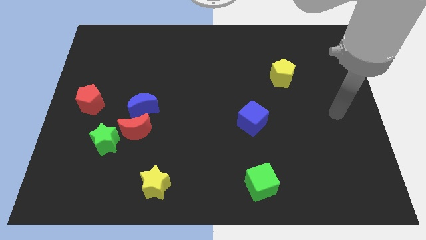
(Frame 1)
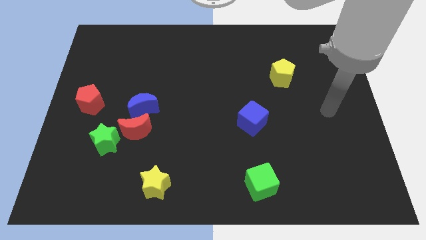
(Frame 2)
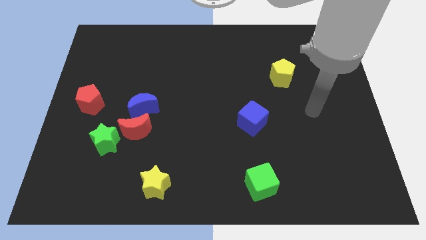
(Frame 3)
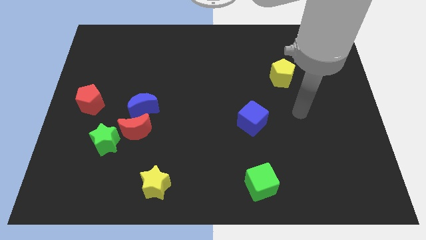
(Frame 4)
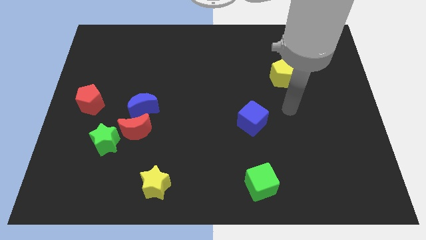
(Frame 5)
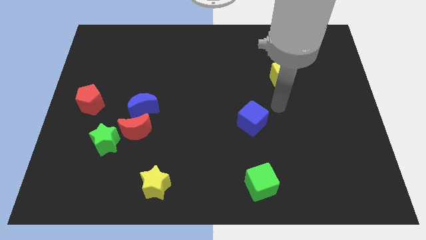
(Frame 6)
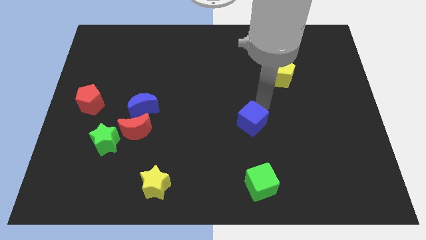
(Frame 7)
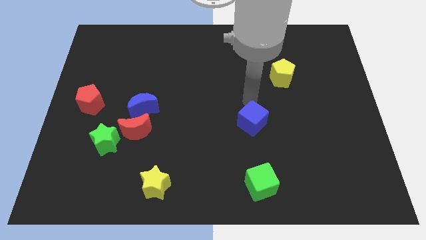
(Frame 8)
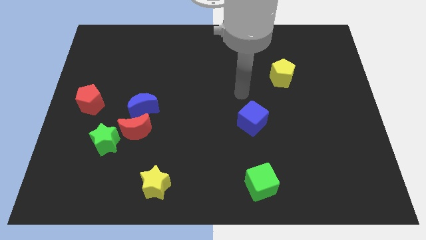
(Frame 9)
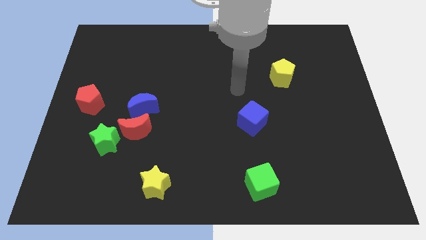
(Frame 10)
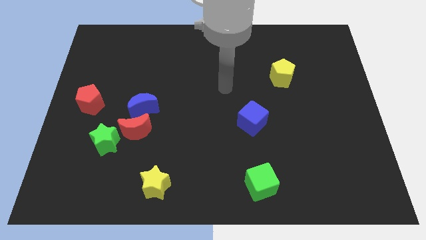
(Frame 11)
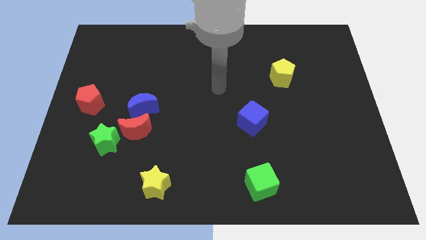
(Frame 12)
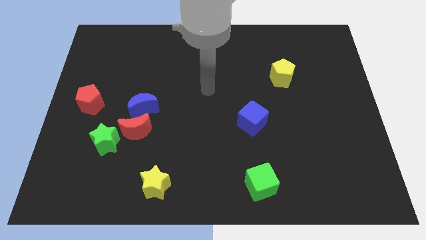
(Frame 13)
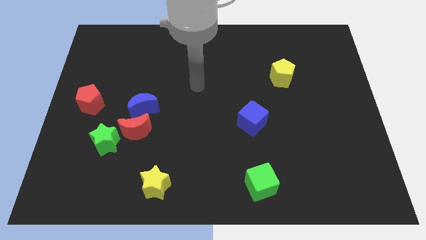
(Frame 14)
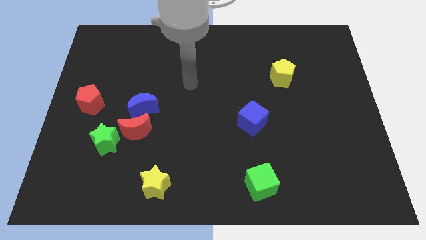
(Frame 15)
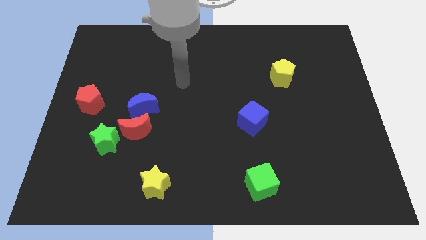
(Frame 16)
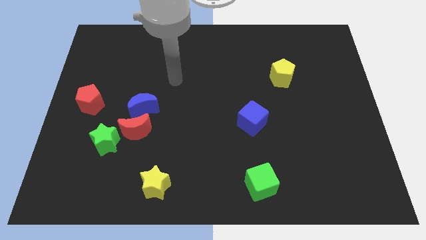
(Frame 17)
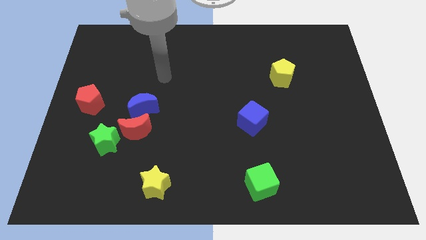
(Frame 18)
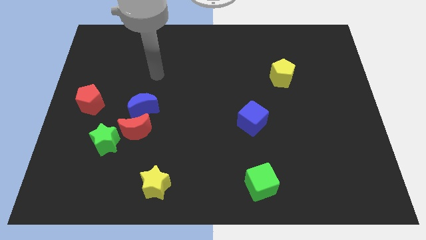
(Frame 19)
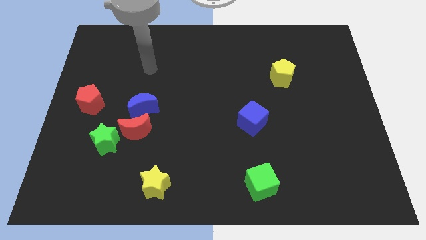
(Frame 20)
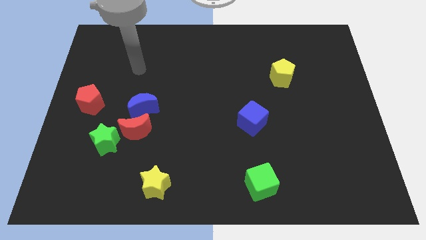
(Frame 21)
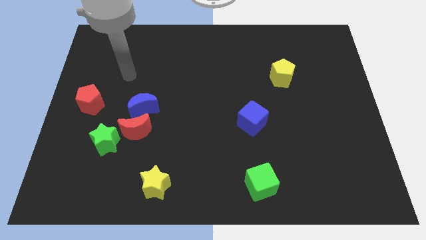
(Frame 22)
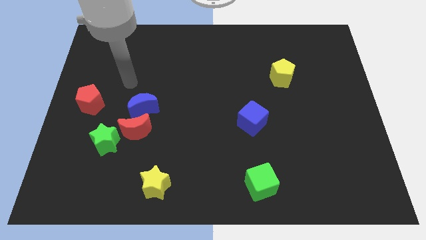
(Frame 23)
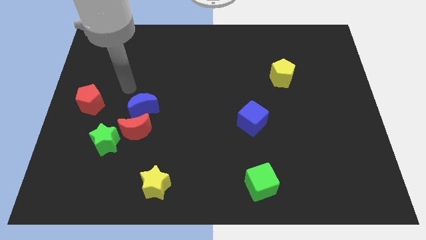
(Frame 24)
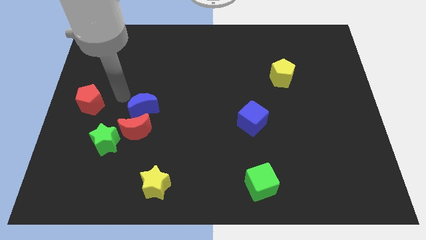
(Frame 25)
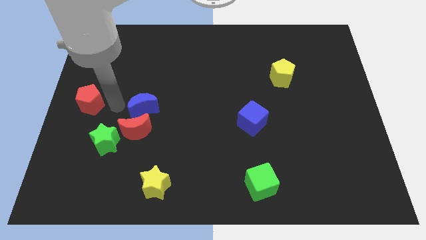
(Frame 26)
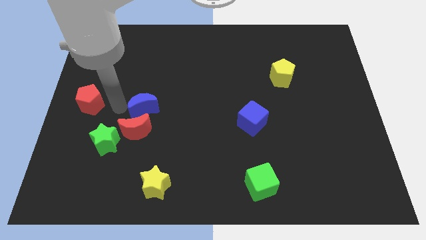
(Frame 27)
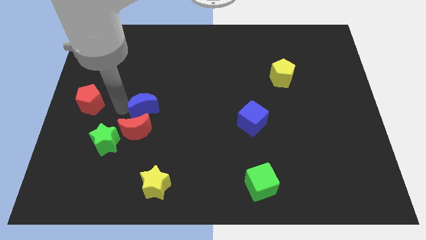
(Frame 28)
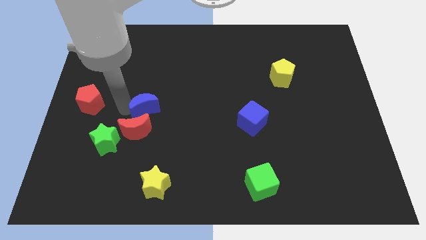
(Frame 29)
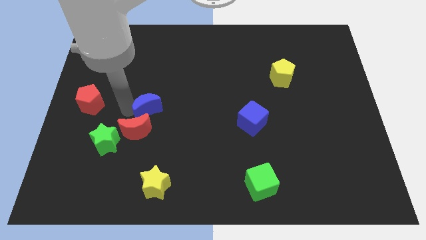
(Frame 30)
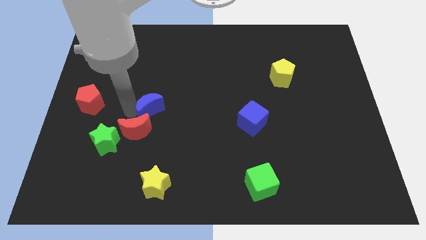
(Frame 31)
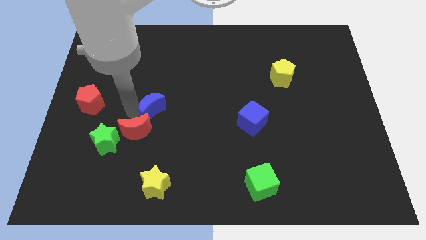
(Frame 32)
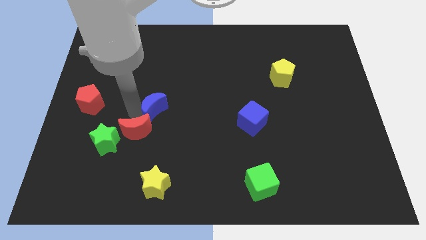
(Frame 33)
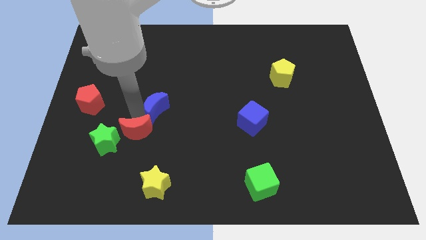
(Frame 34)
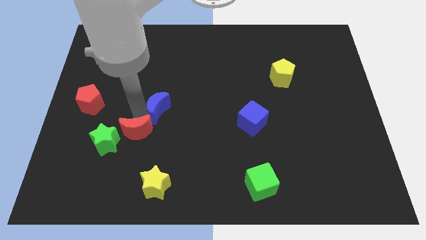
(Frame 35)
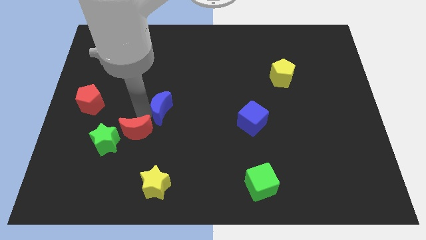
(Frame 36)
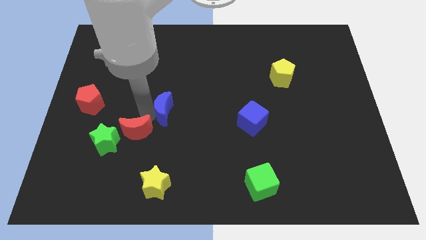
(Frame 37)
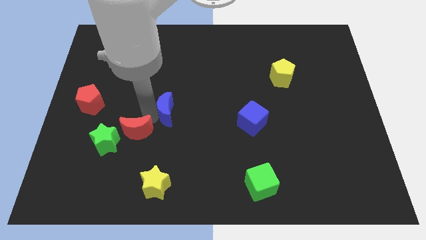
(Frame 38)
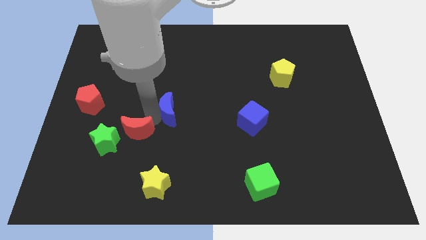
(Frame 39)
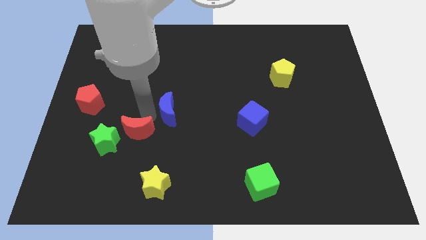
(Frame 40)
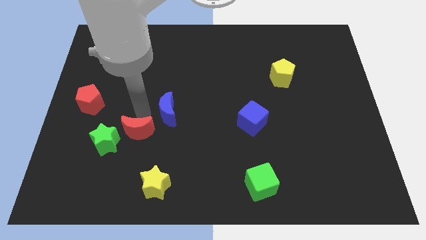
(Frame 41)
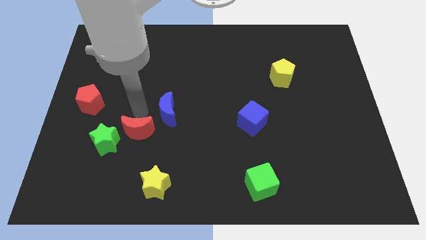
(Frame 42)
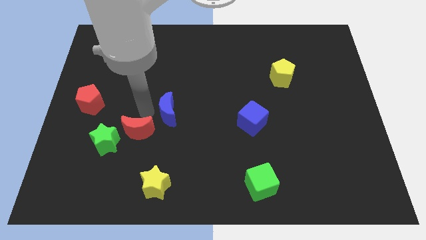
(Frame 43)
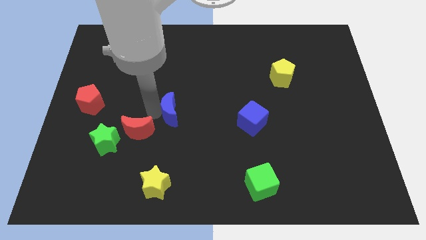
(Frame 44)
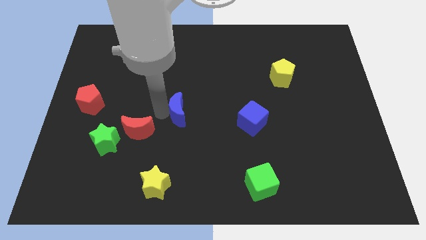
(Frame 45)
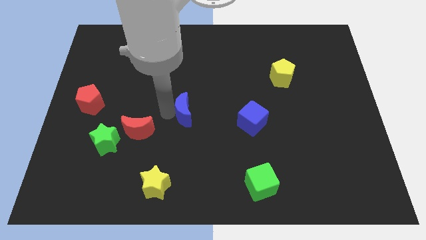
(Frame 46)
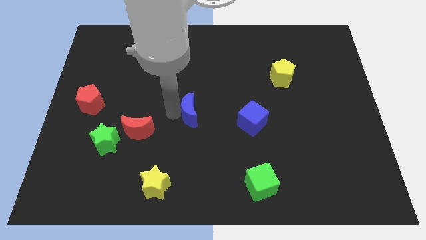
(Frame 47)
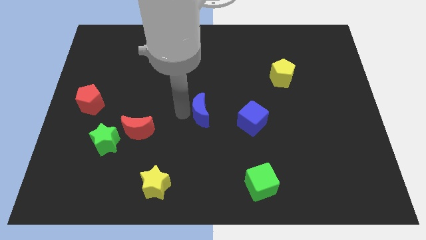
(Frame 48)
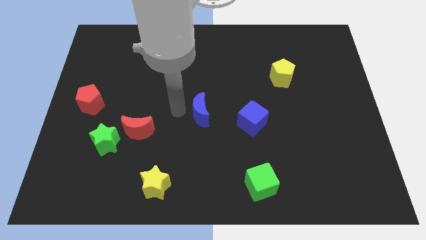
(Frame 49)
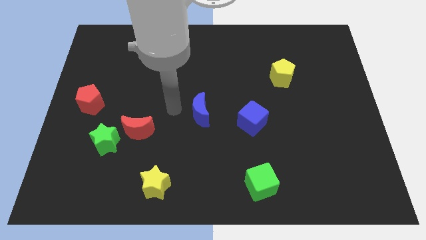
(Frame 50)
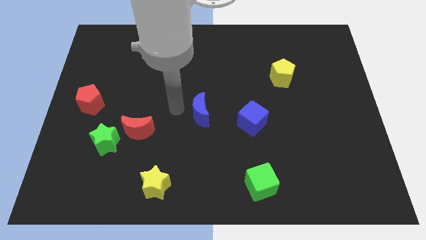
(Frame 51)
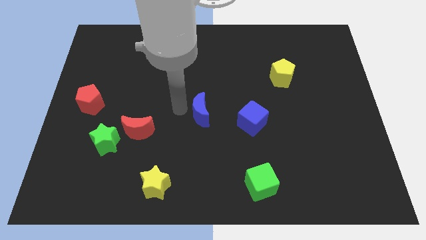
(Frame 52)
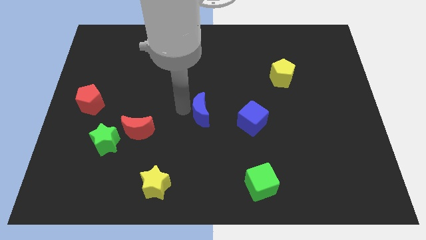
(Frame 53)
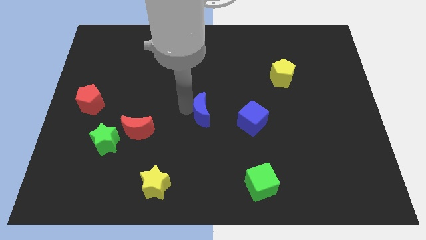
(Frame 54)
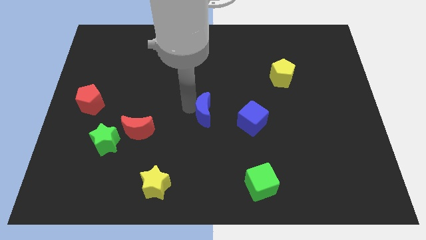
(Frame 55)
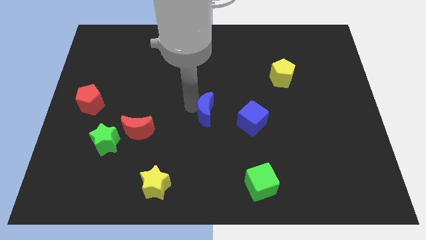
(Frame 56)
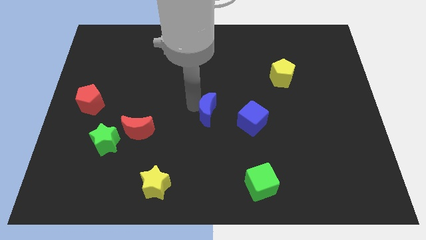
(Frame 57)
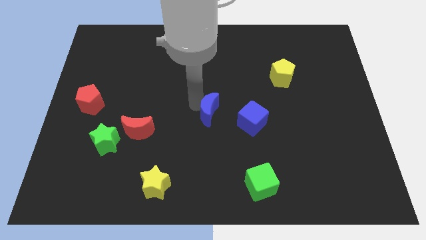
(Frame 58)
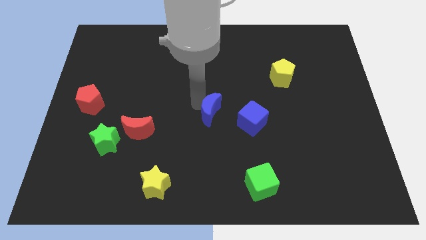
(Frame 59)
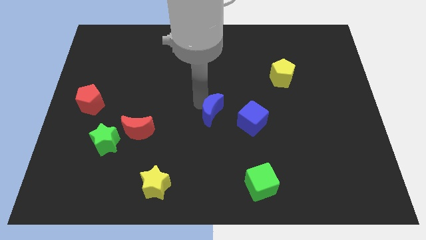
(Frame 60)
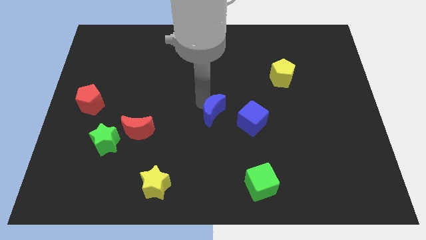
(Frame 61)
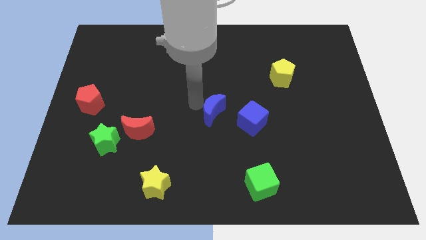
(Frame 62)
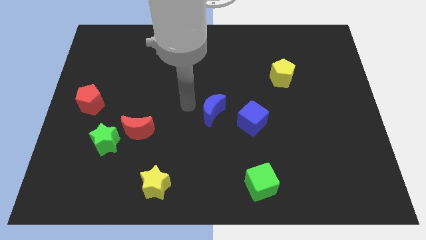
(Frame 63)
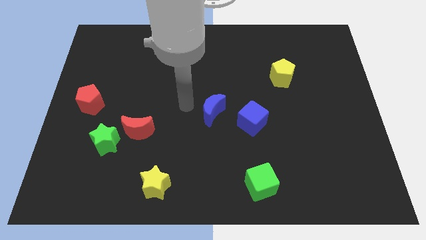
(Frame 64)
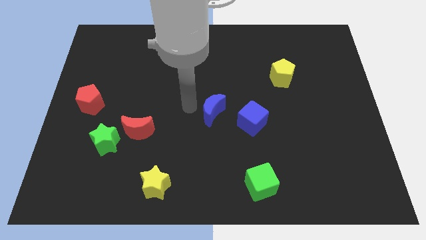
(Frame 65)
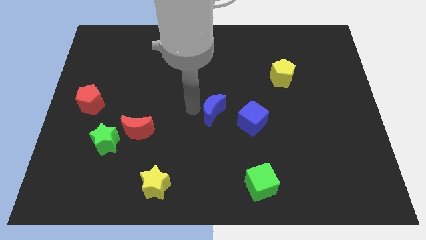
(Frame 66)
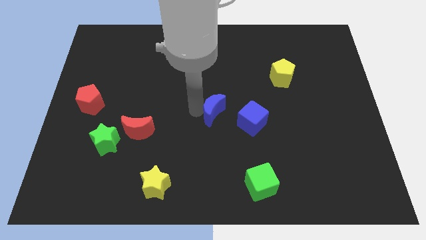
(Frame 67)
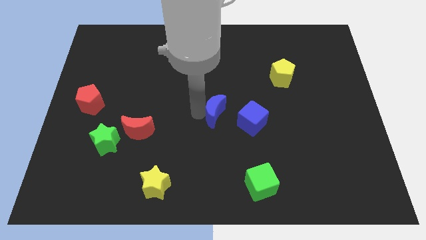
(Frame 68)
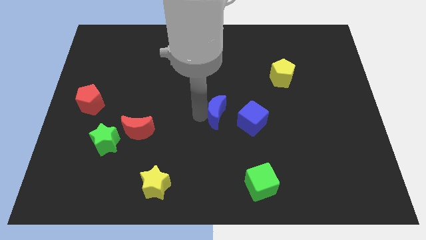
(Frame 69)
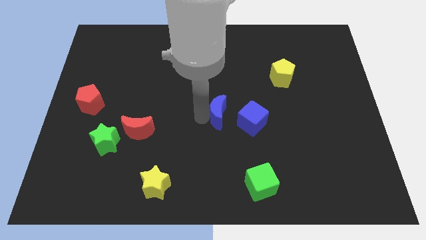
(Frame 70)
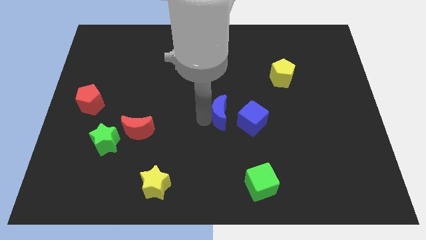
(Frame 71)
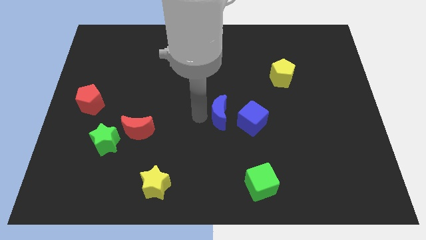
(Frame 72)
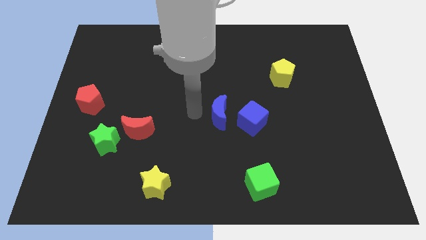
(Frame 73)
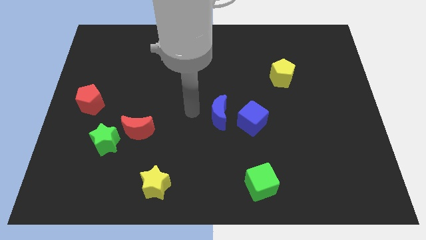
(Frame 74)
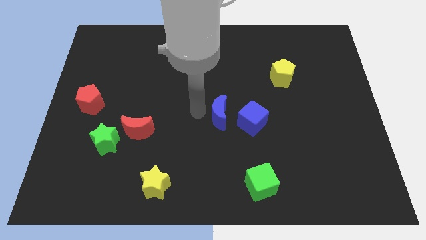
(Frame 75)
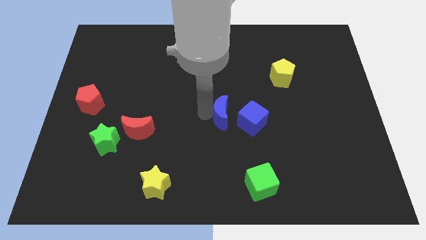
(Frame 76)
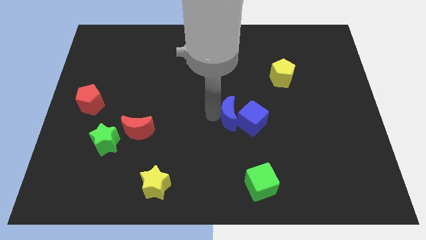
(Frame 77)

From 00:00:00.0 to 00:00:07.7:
put the blue moon close to the blue cube
